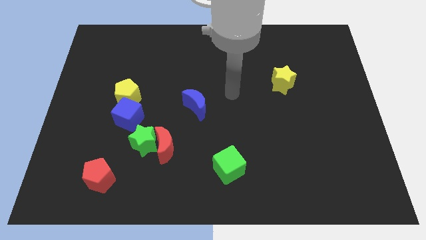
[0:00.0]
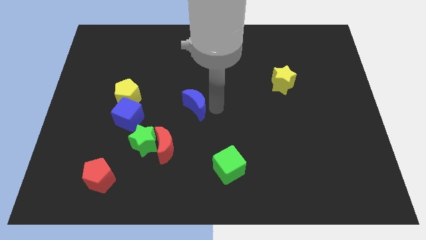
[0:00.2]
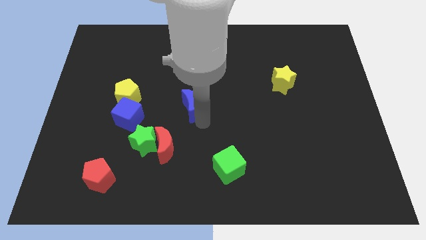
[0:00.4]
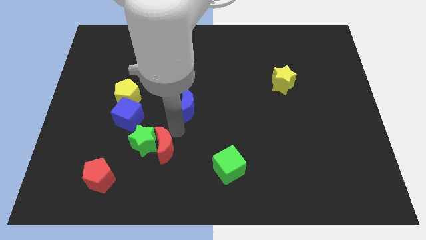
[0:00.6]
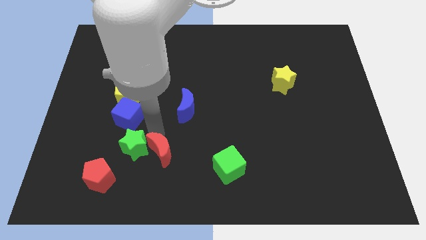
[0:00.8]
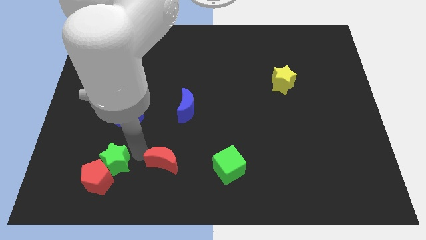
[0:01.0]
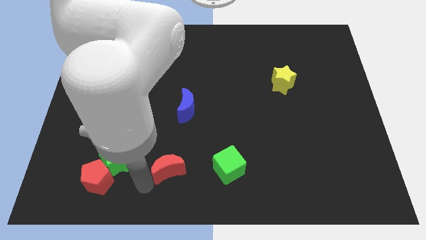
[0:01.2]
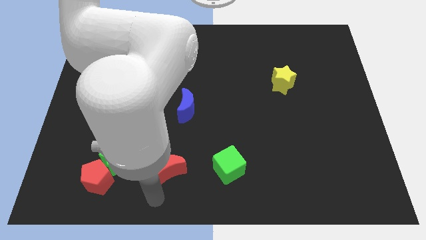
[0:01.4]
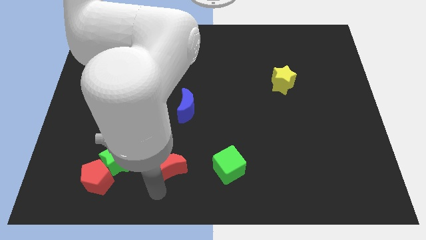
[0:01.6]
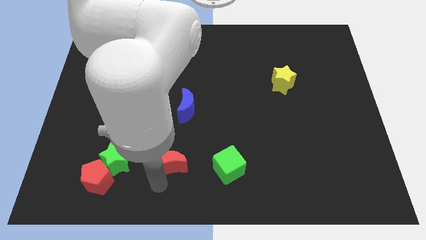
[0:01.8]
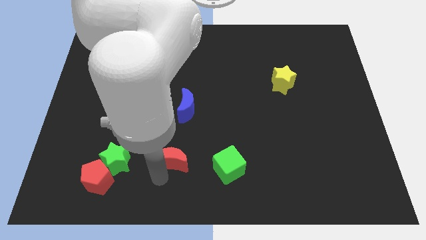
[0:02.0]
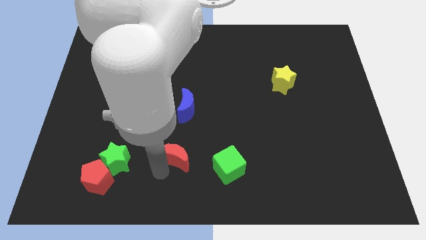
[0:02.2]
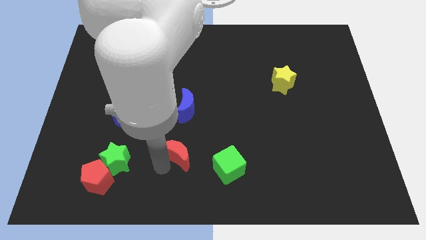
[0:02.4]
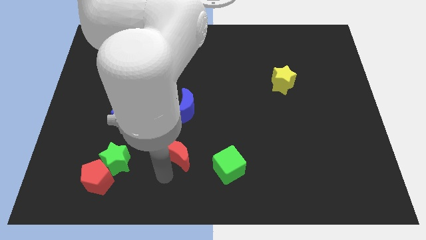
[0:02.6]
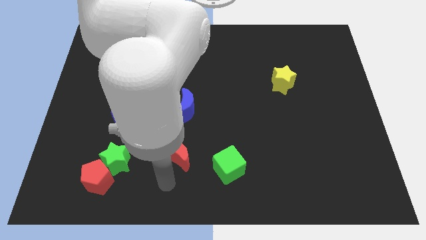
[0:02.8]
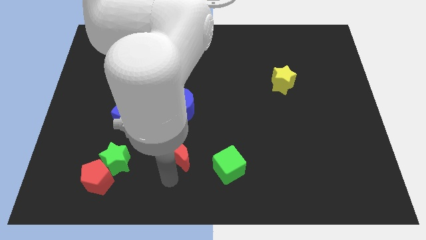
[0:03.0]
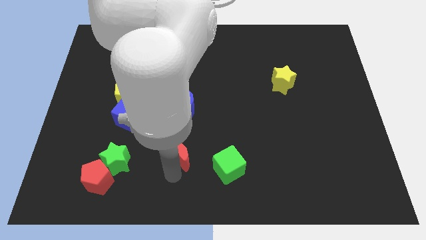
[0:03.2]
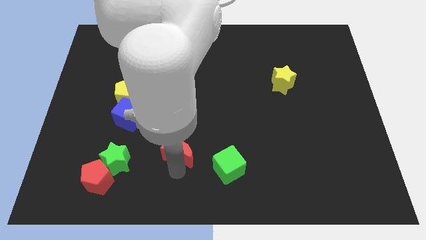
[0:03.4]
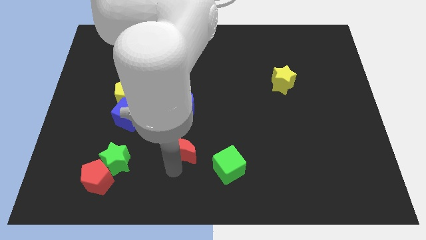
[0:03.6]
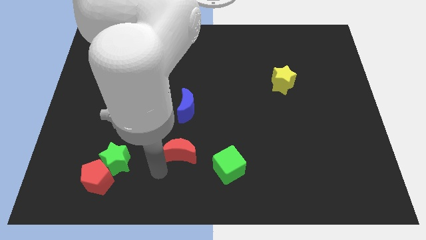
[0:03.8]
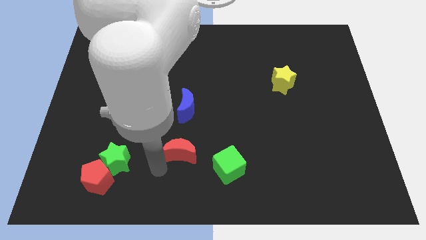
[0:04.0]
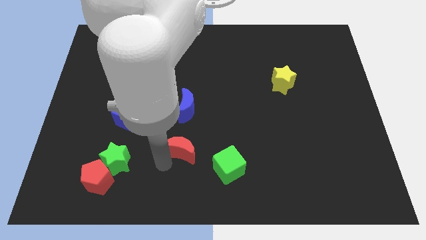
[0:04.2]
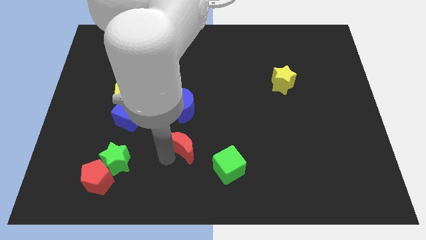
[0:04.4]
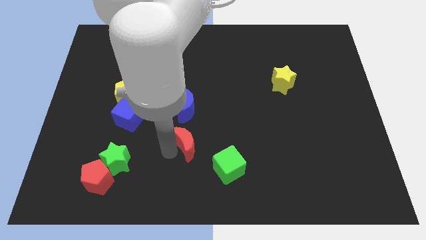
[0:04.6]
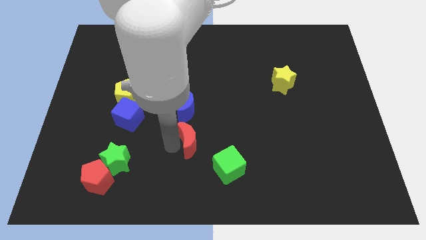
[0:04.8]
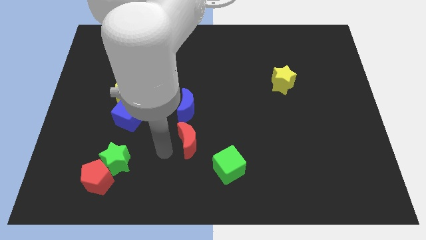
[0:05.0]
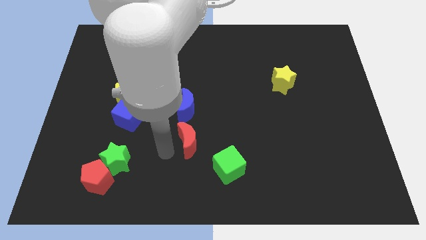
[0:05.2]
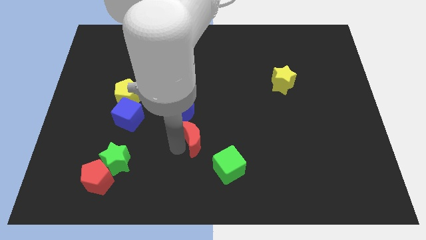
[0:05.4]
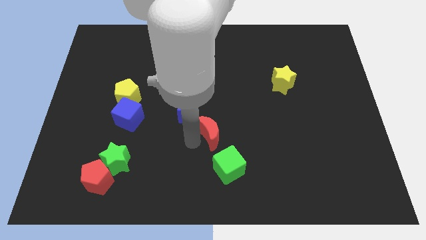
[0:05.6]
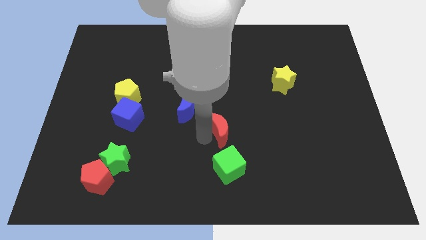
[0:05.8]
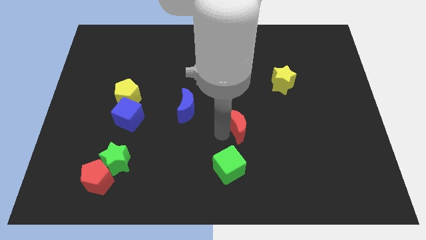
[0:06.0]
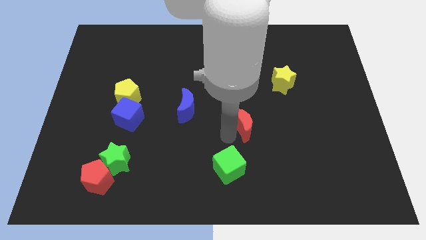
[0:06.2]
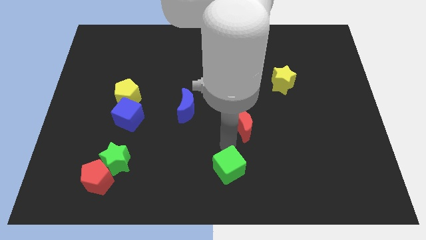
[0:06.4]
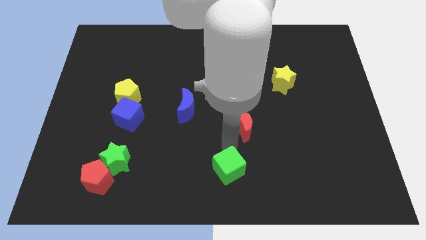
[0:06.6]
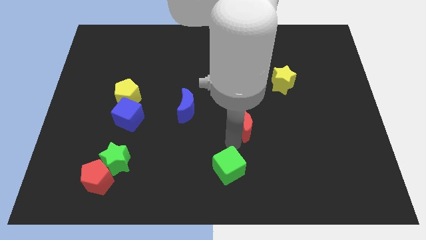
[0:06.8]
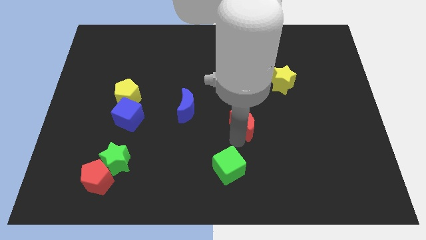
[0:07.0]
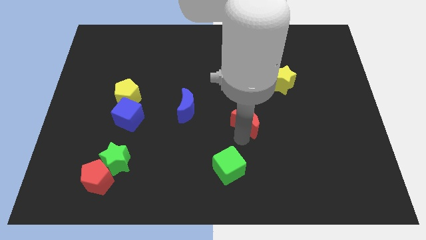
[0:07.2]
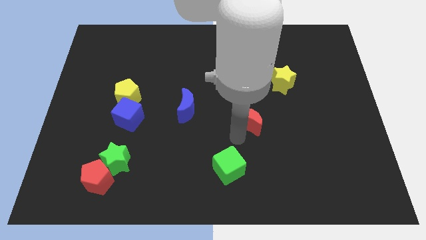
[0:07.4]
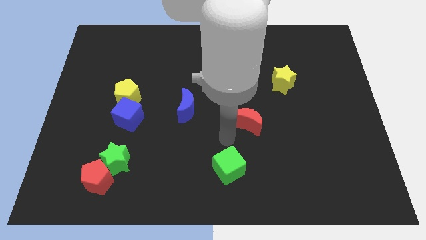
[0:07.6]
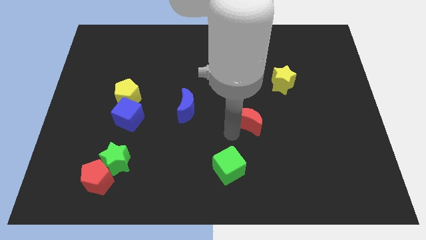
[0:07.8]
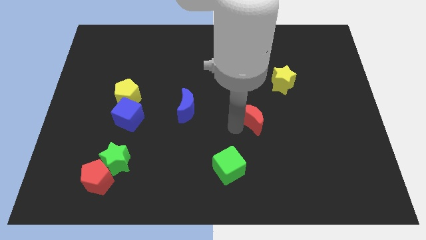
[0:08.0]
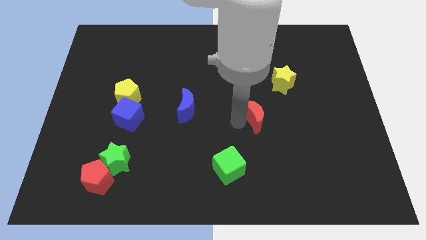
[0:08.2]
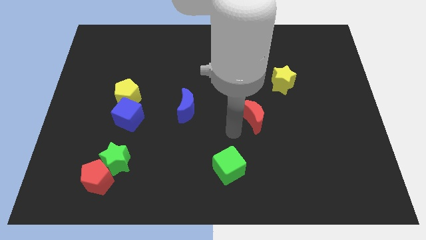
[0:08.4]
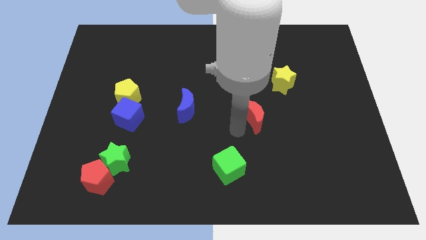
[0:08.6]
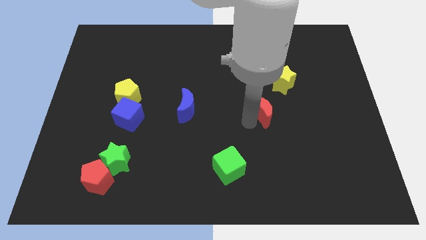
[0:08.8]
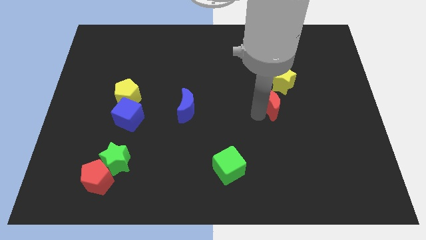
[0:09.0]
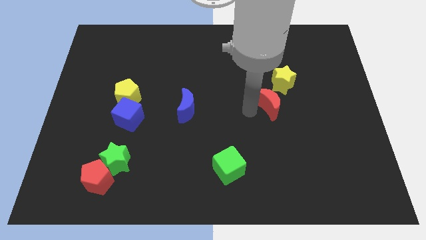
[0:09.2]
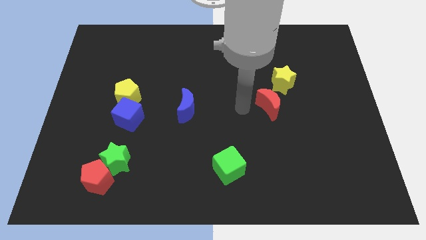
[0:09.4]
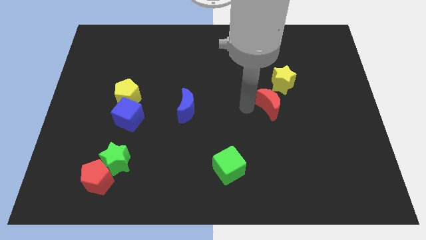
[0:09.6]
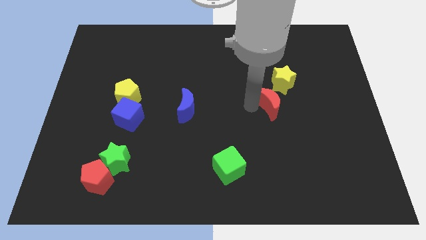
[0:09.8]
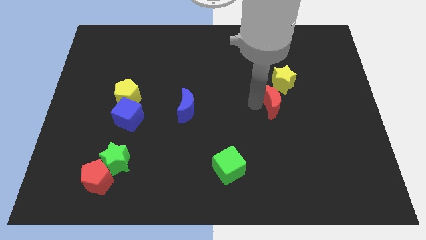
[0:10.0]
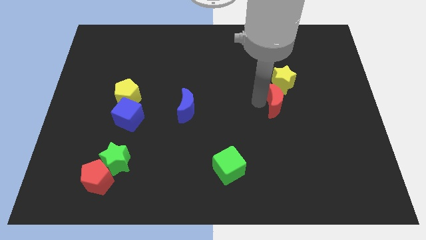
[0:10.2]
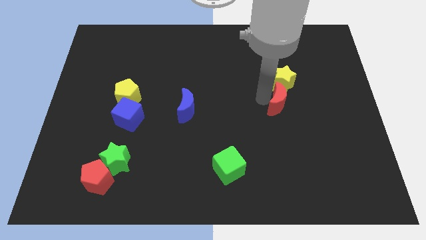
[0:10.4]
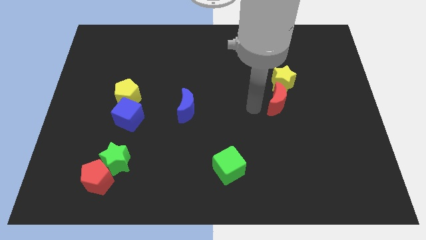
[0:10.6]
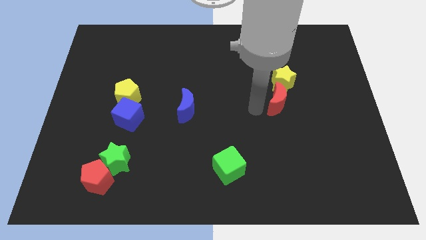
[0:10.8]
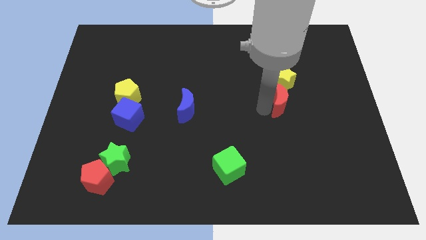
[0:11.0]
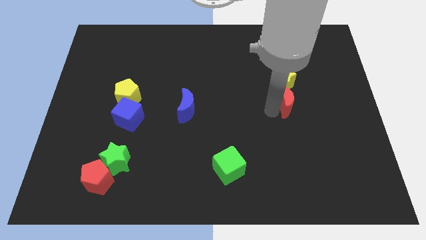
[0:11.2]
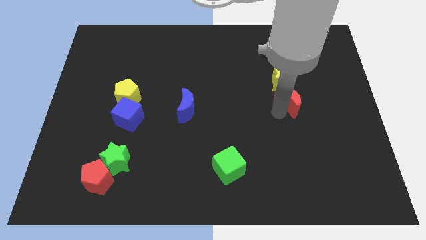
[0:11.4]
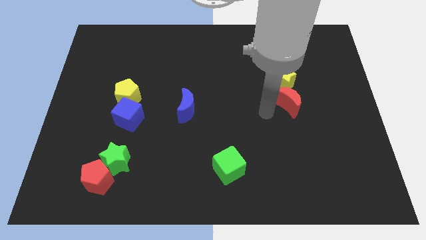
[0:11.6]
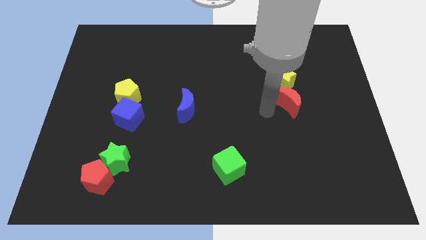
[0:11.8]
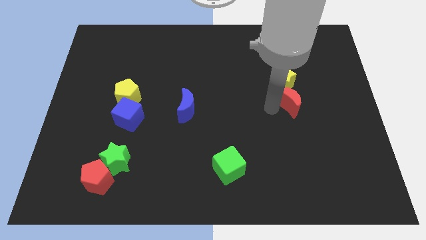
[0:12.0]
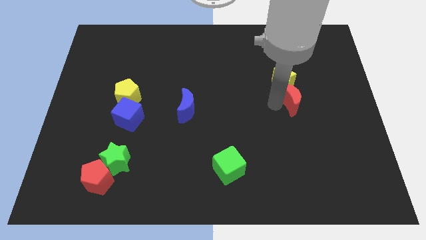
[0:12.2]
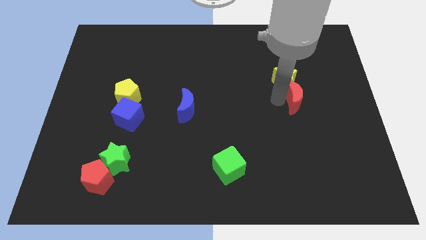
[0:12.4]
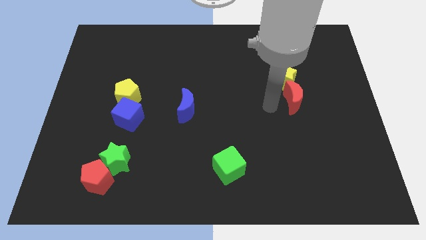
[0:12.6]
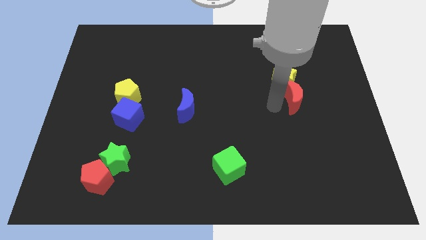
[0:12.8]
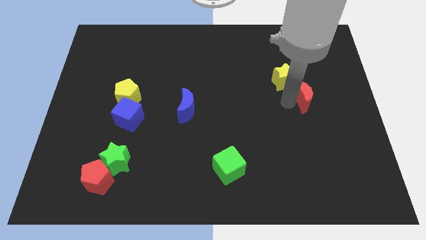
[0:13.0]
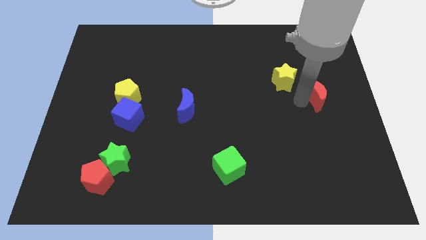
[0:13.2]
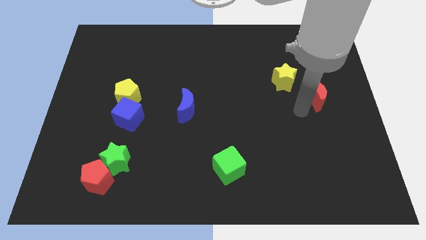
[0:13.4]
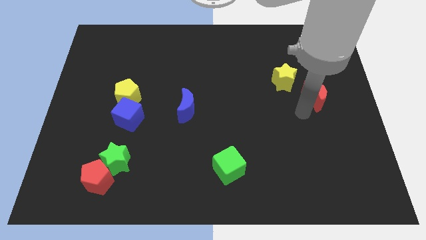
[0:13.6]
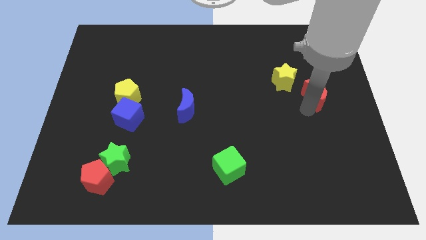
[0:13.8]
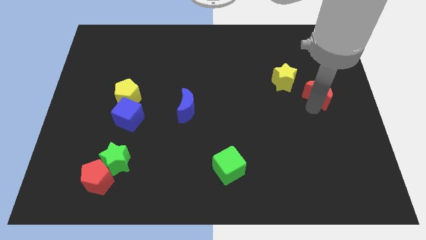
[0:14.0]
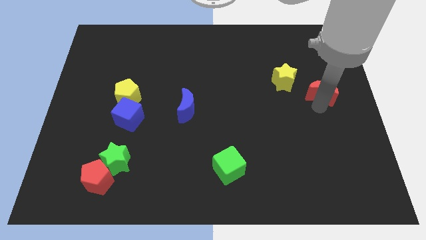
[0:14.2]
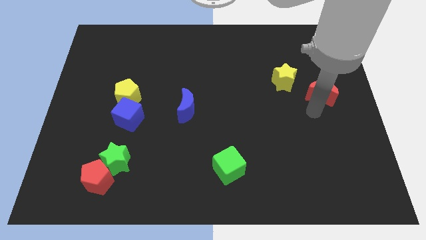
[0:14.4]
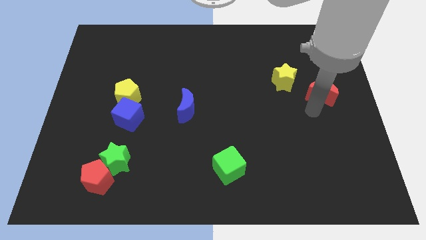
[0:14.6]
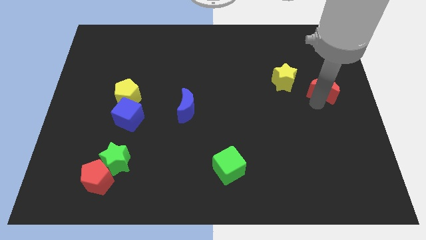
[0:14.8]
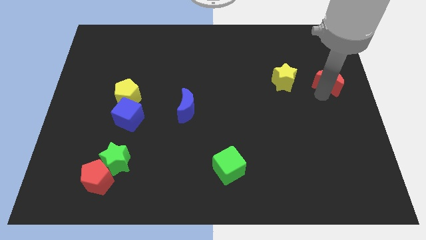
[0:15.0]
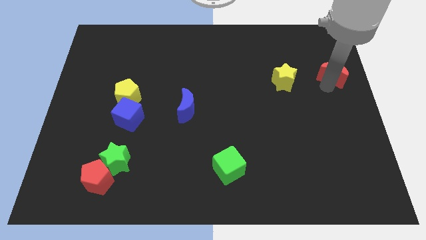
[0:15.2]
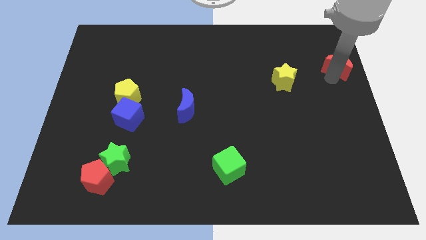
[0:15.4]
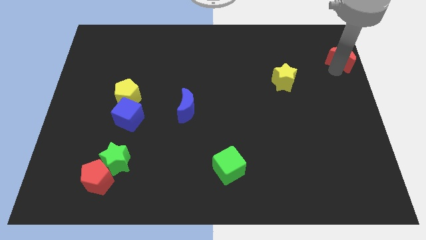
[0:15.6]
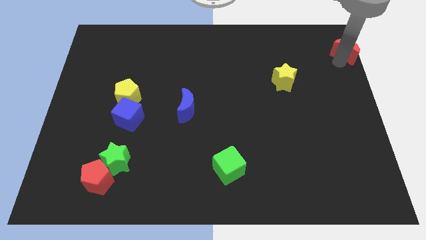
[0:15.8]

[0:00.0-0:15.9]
put the red moon to the top right of the board
